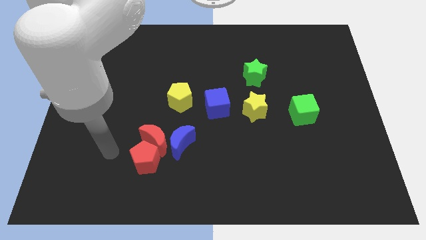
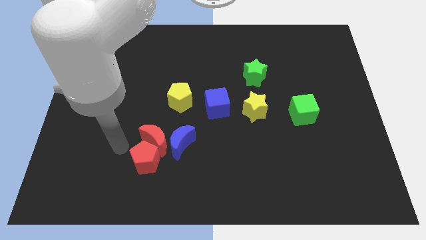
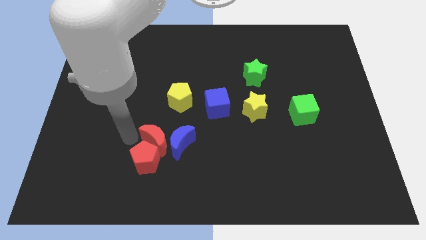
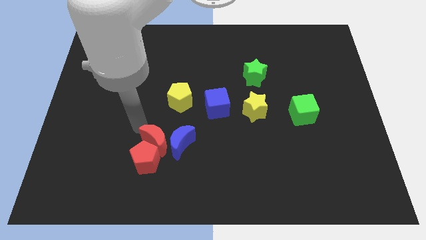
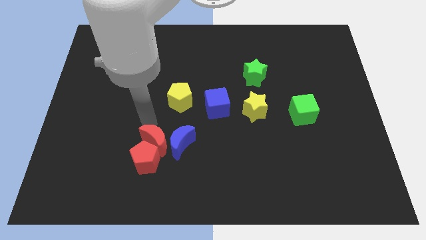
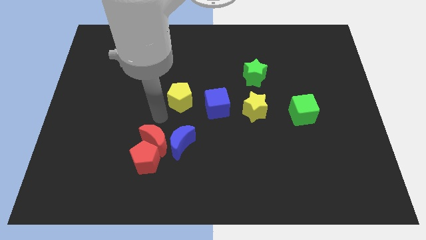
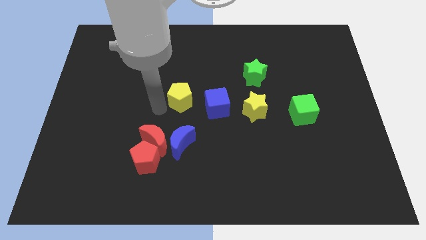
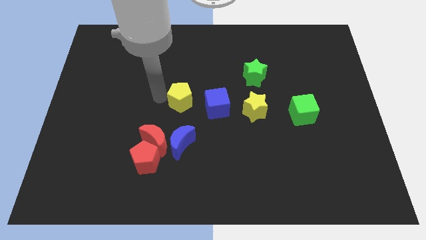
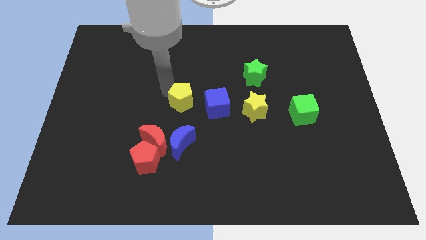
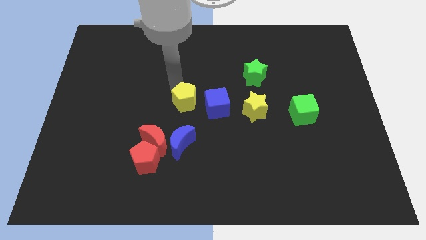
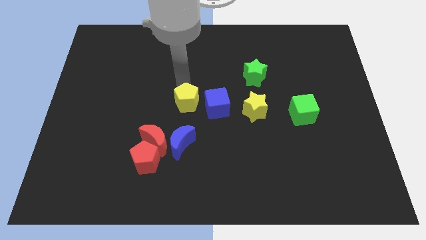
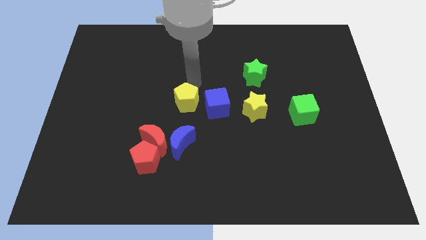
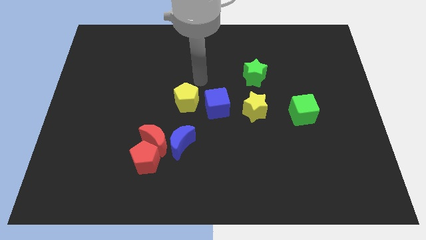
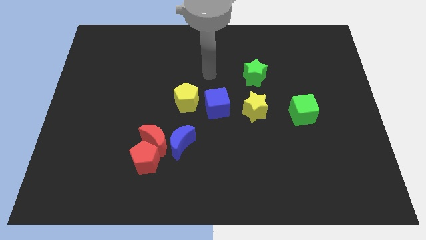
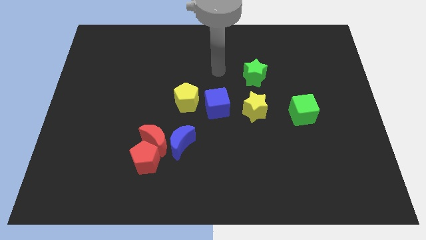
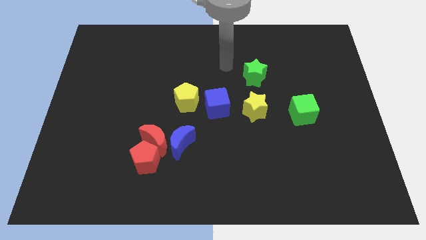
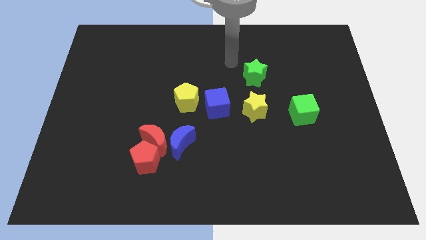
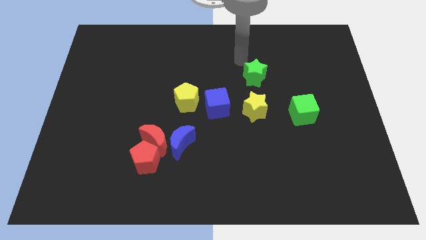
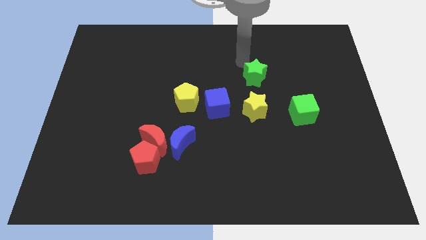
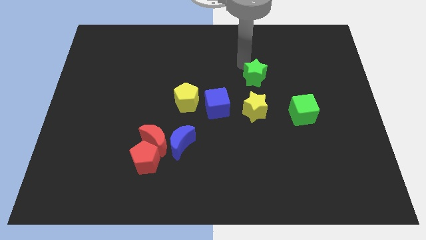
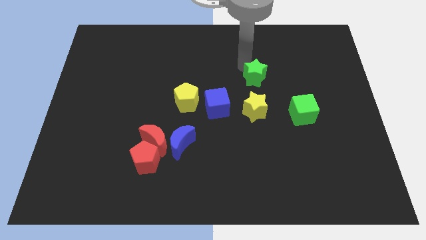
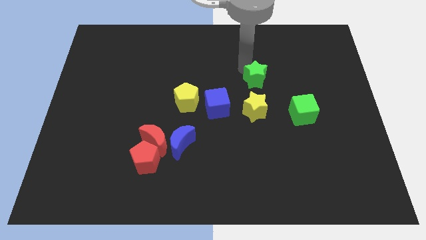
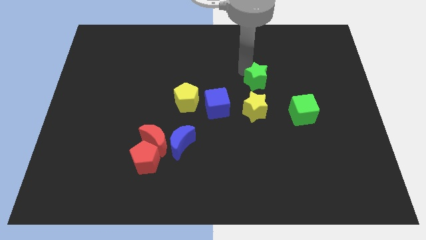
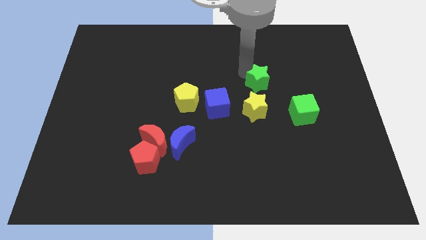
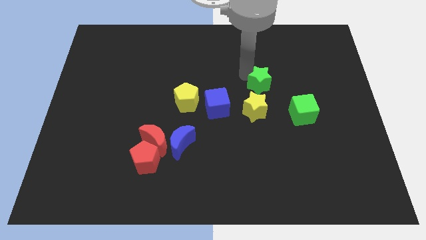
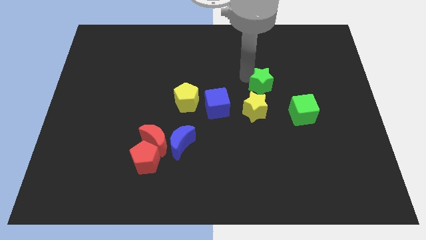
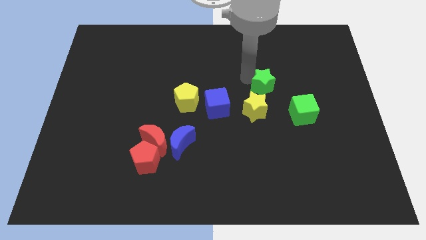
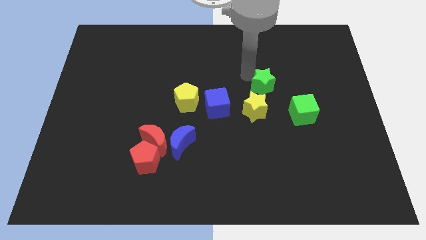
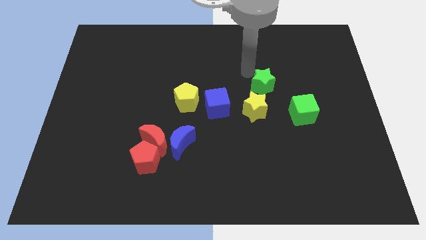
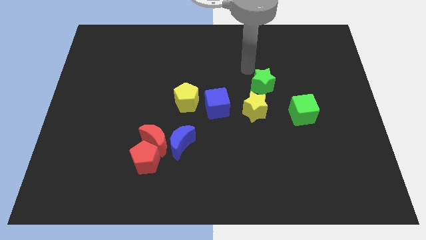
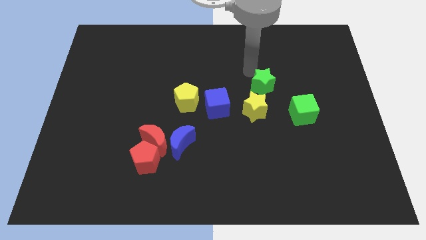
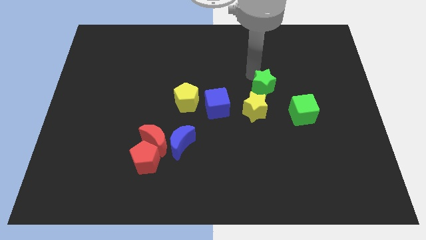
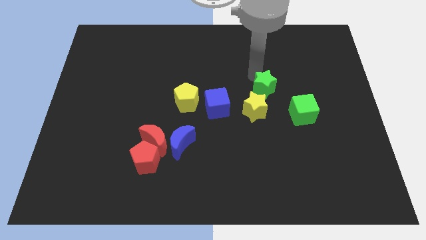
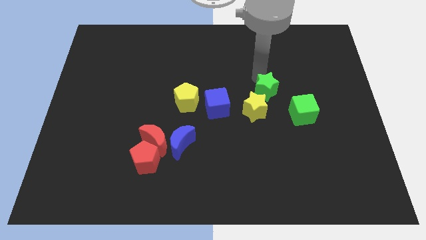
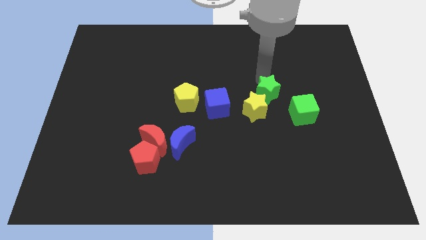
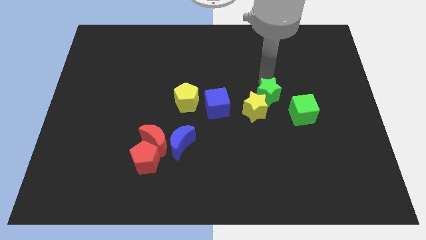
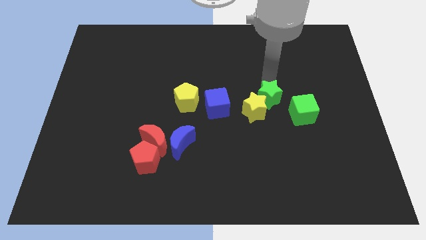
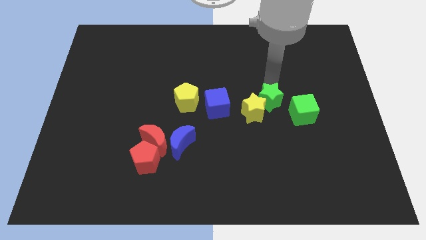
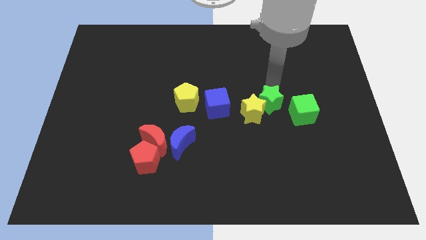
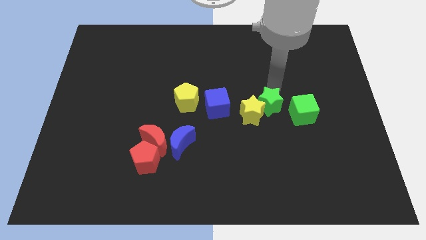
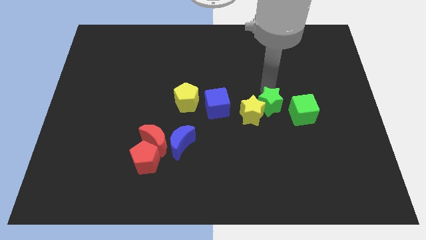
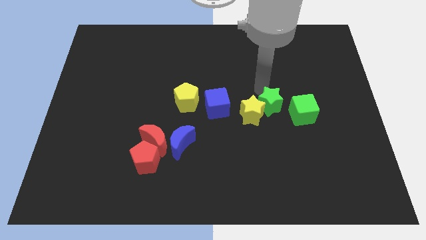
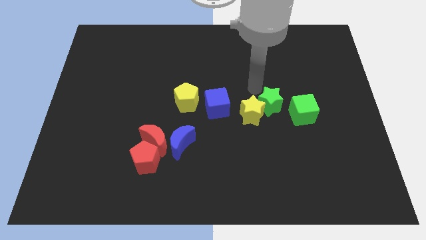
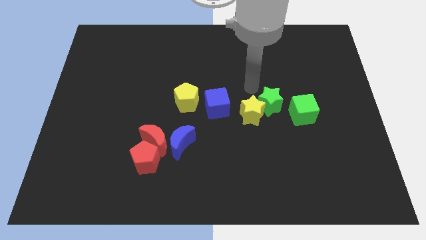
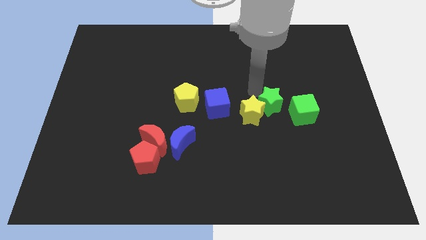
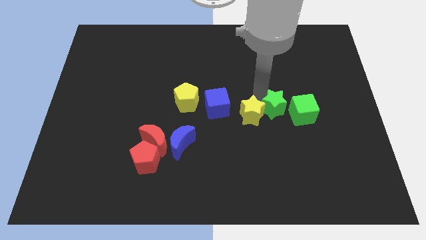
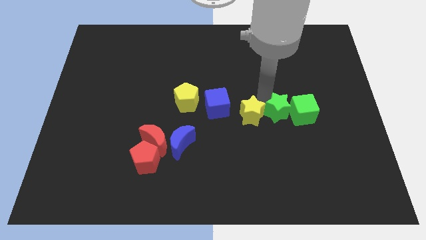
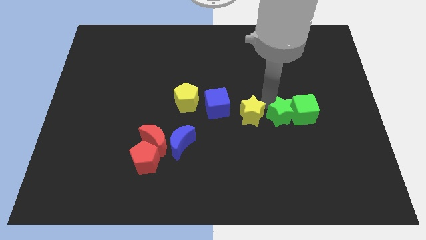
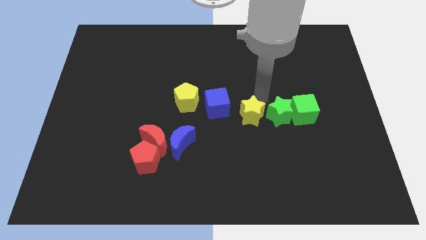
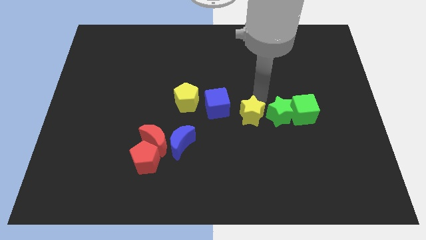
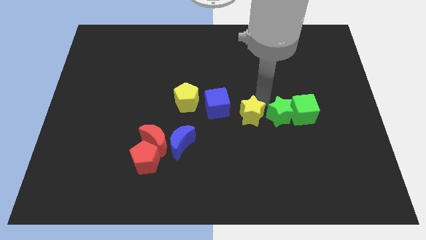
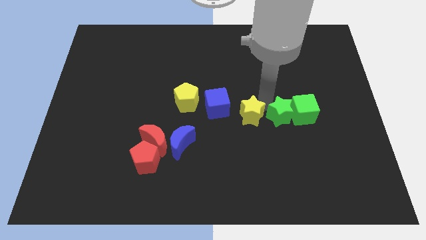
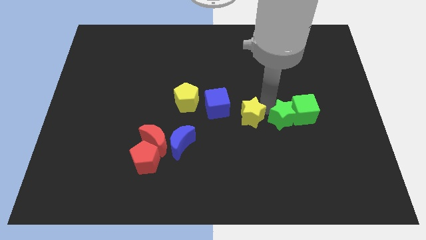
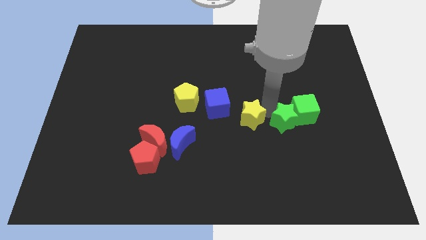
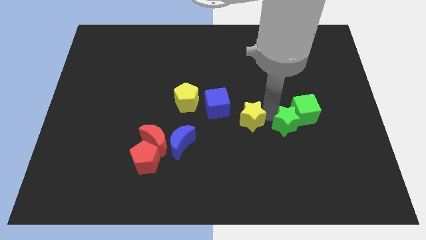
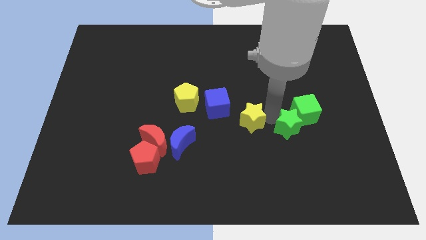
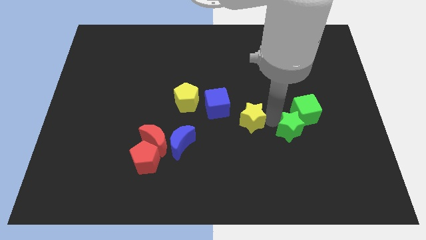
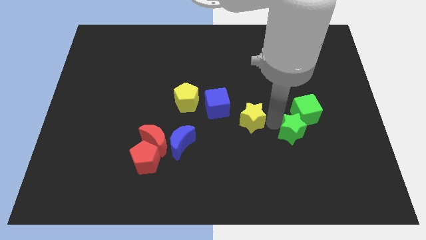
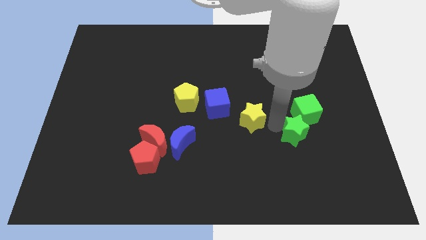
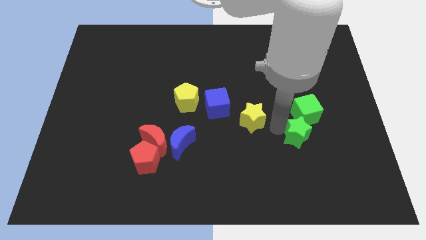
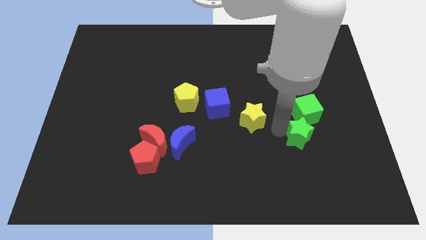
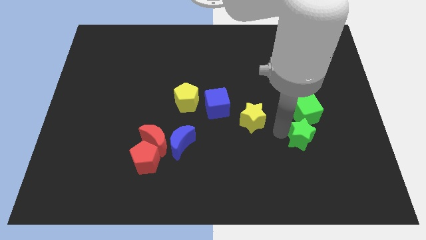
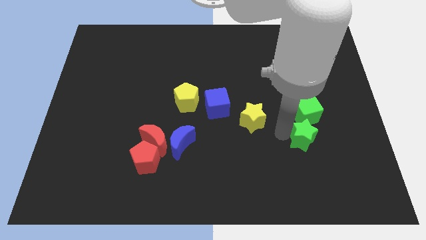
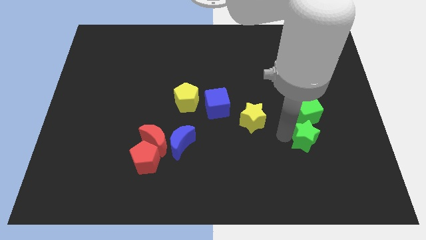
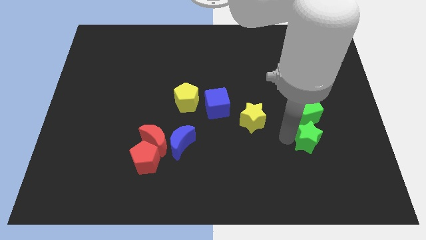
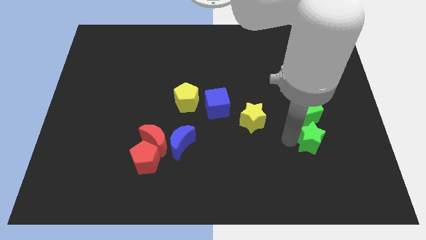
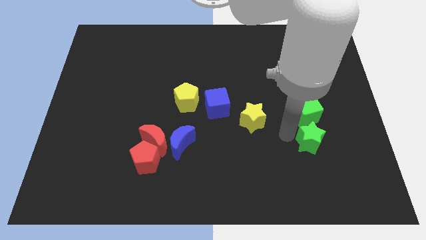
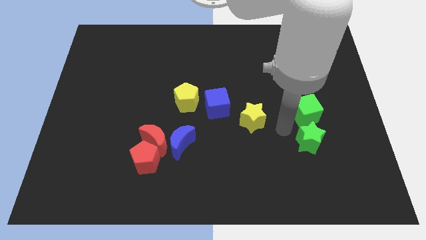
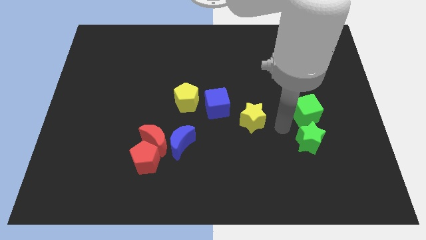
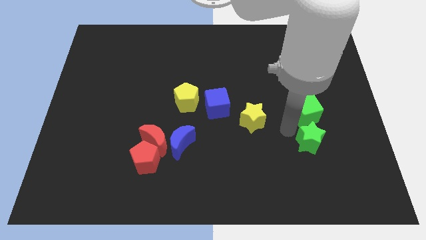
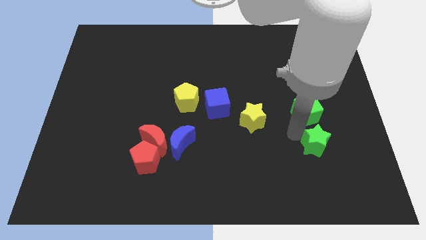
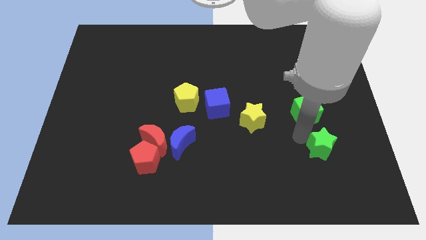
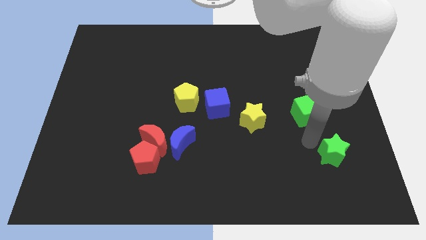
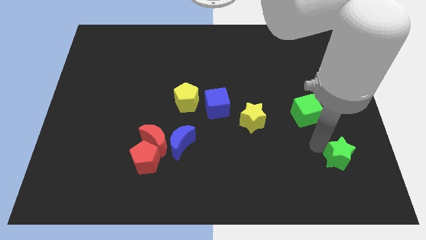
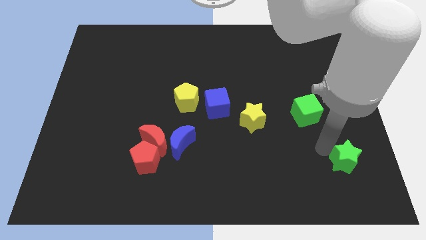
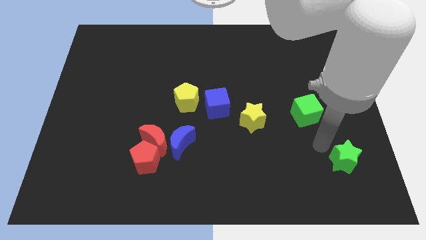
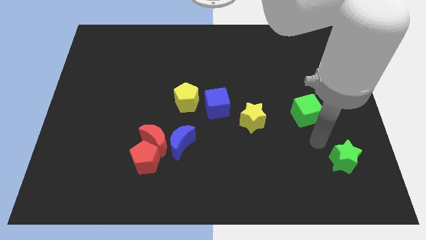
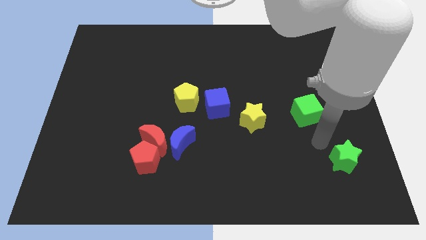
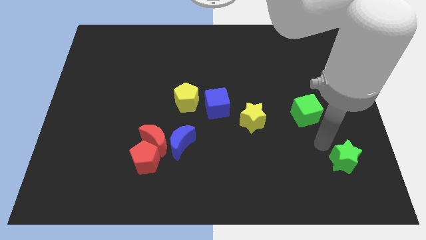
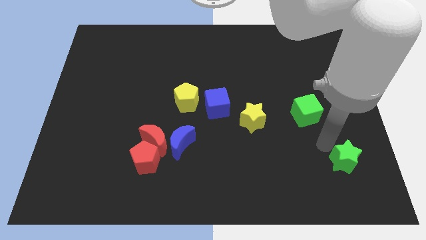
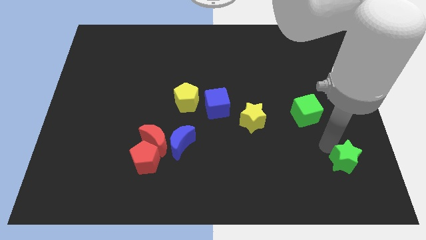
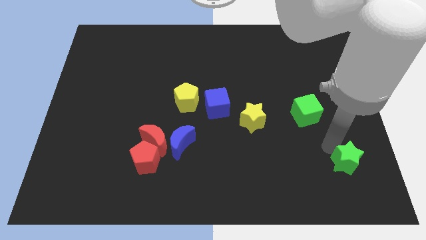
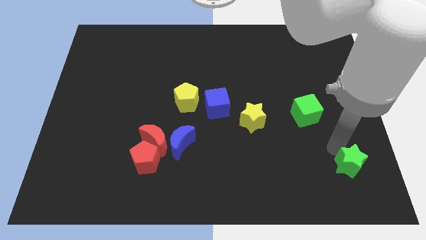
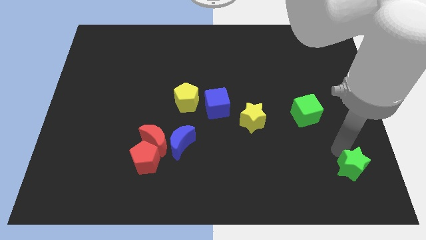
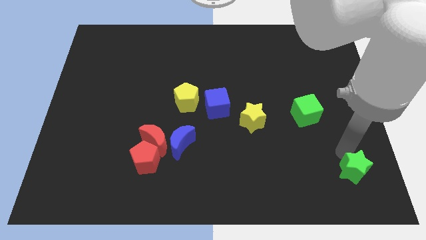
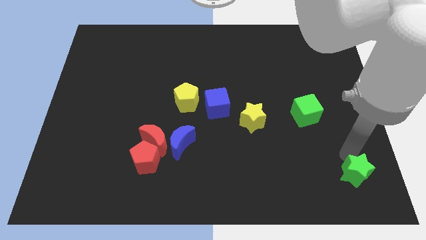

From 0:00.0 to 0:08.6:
move the green star to the bottom right corner
